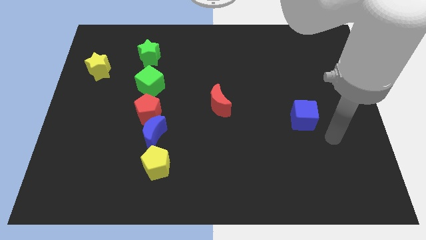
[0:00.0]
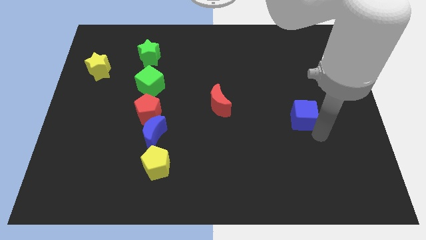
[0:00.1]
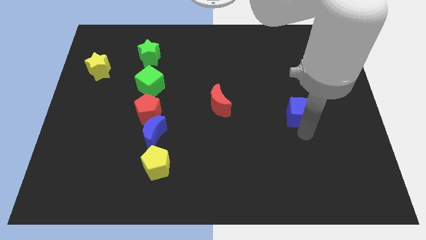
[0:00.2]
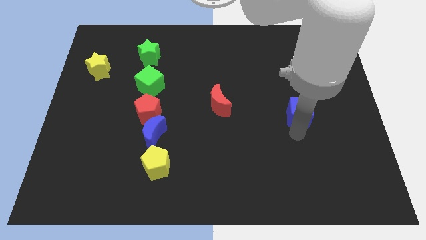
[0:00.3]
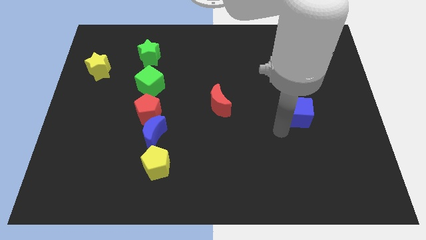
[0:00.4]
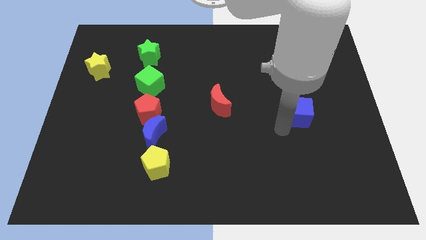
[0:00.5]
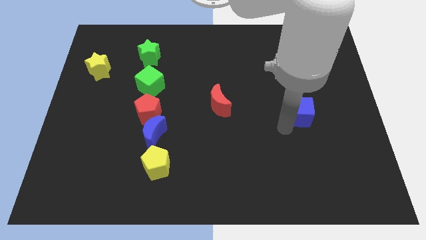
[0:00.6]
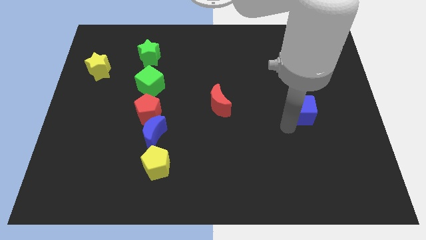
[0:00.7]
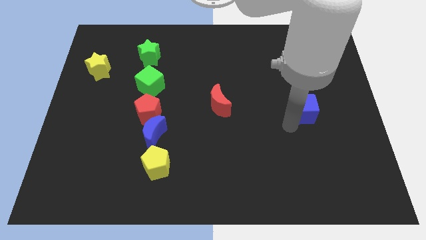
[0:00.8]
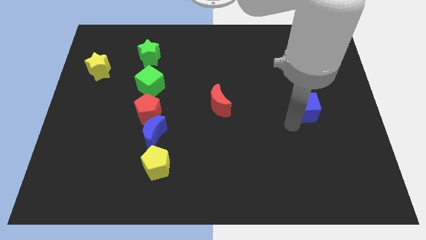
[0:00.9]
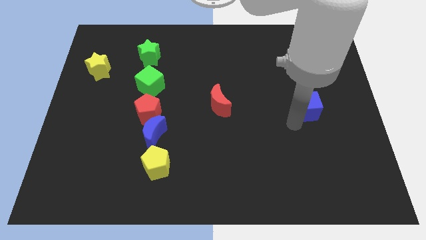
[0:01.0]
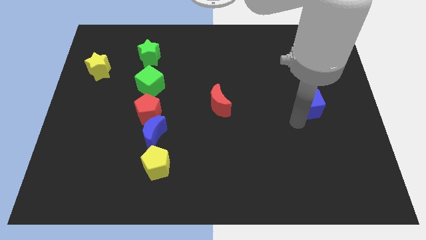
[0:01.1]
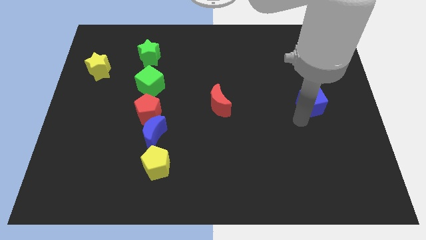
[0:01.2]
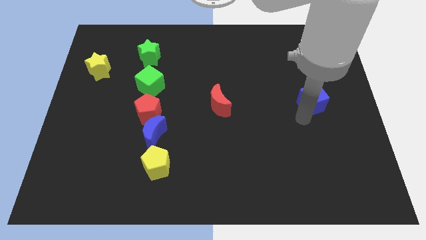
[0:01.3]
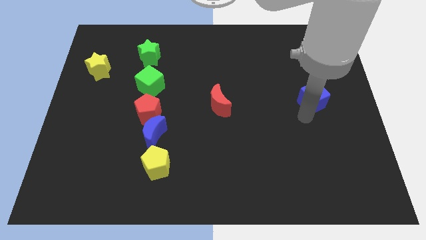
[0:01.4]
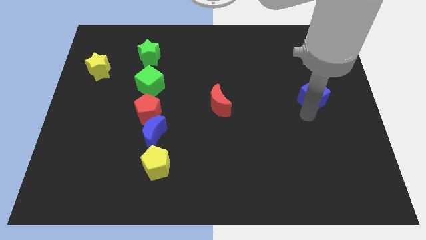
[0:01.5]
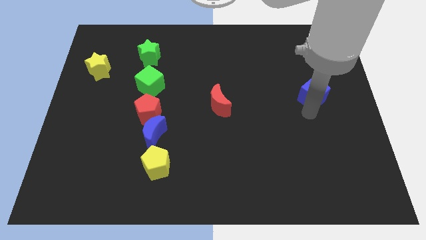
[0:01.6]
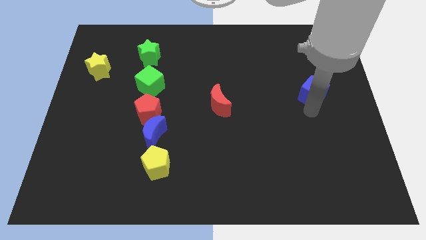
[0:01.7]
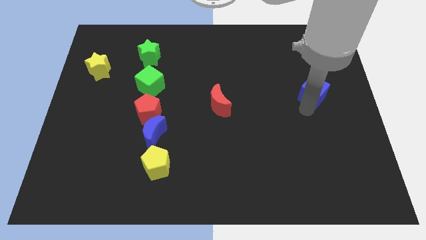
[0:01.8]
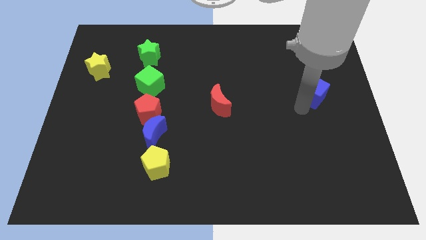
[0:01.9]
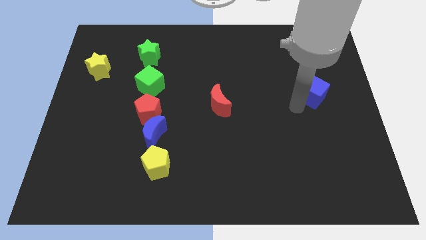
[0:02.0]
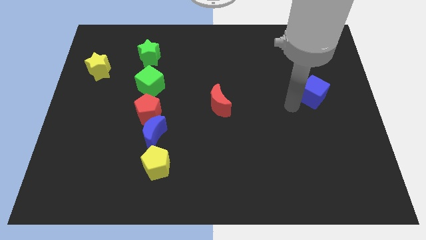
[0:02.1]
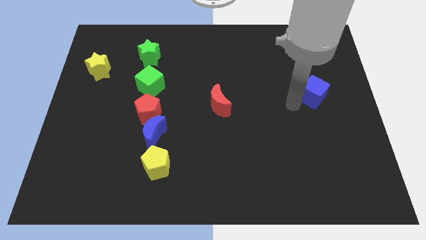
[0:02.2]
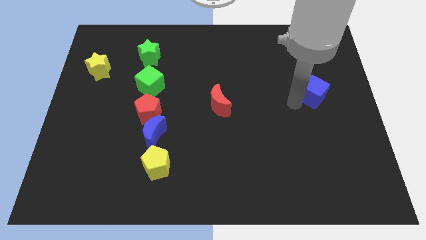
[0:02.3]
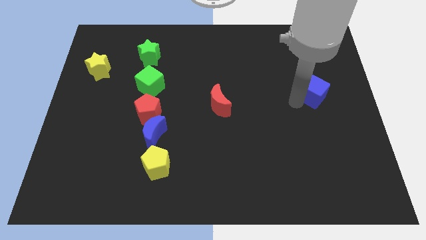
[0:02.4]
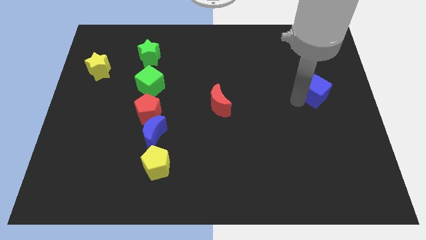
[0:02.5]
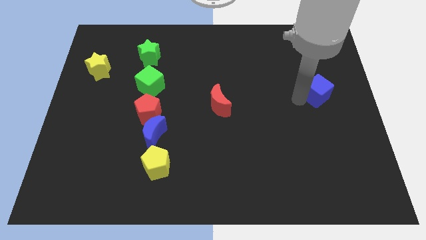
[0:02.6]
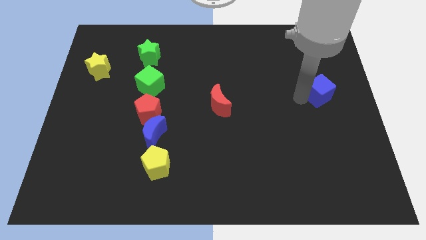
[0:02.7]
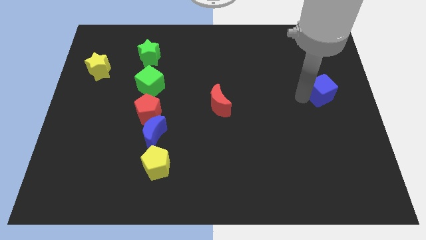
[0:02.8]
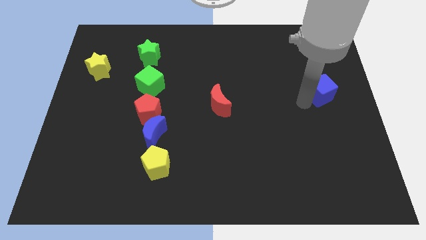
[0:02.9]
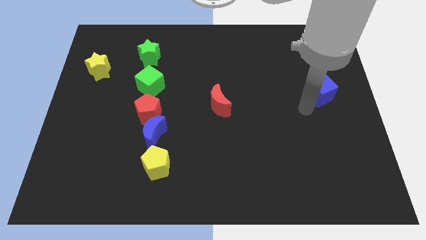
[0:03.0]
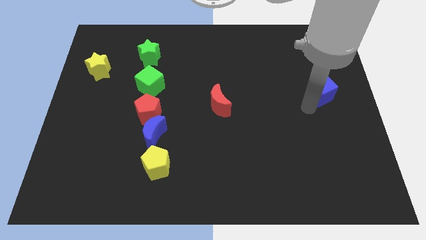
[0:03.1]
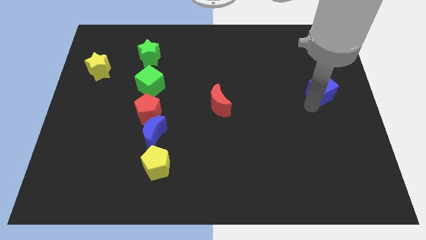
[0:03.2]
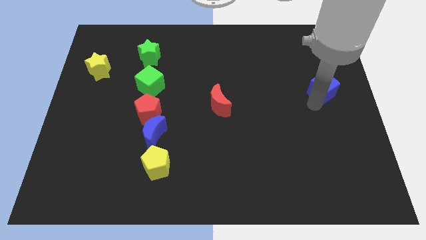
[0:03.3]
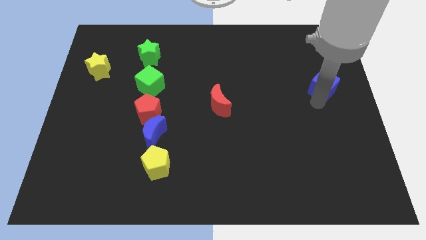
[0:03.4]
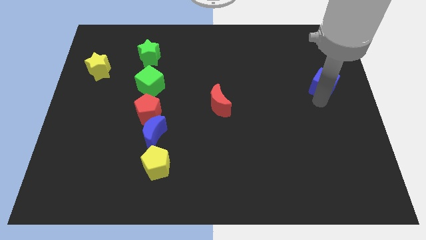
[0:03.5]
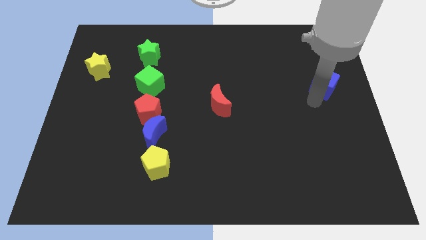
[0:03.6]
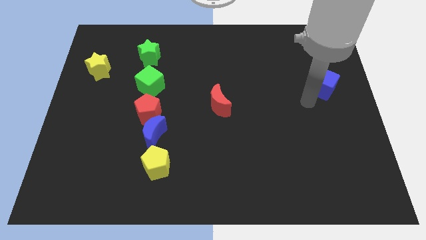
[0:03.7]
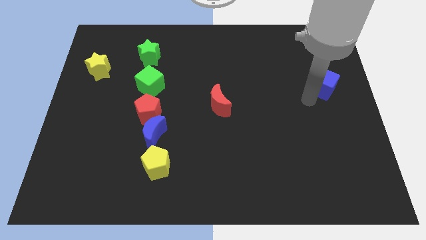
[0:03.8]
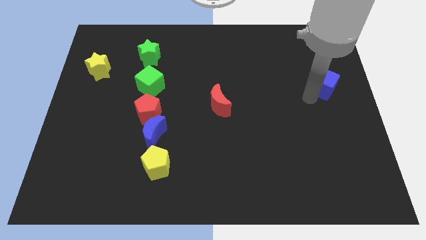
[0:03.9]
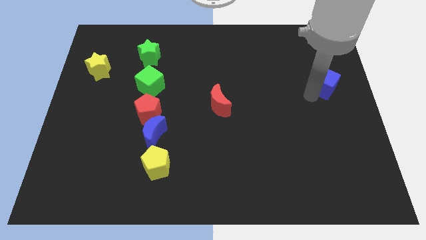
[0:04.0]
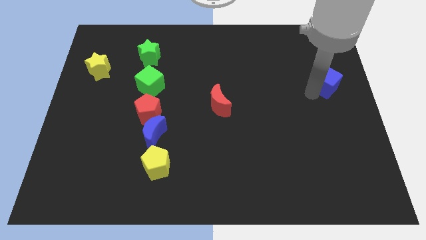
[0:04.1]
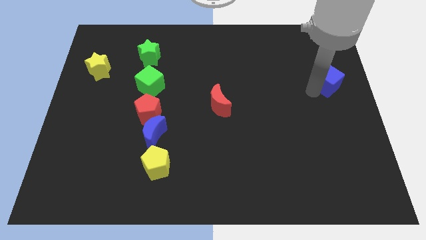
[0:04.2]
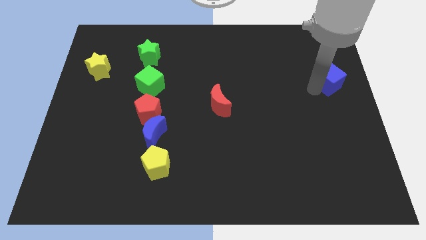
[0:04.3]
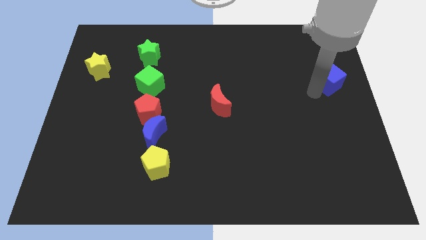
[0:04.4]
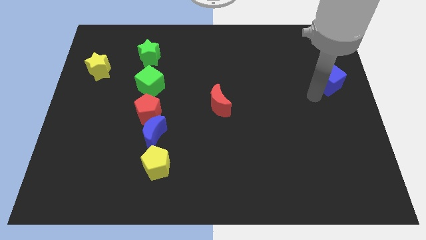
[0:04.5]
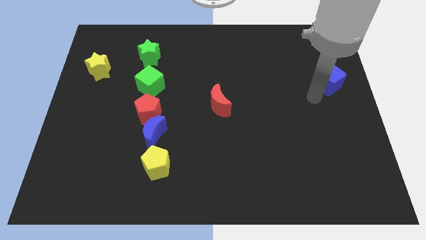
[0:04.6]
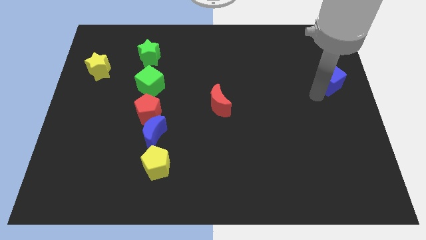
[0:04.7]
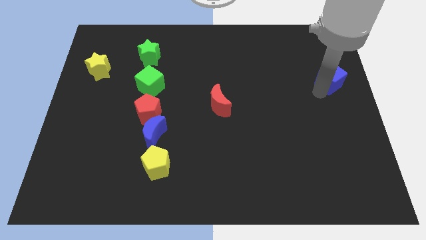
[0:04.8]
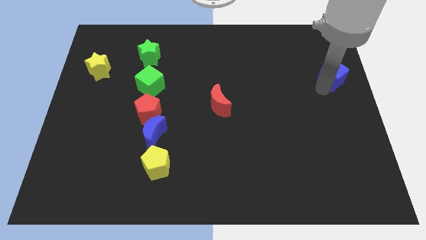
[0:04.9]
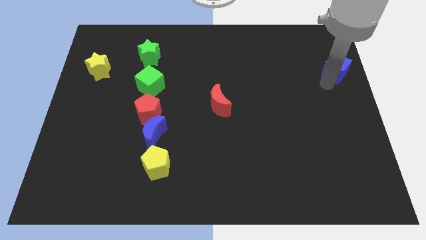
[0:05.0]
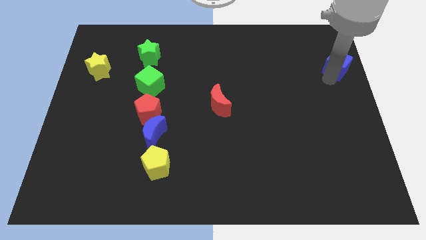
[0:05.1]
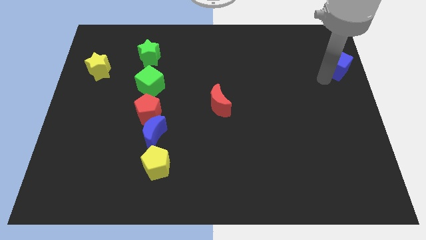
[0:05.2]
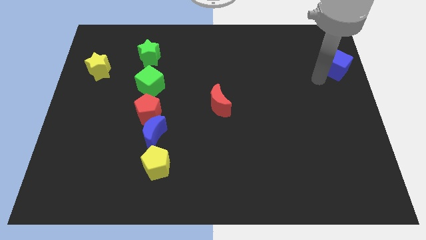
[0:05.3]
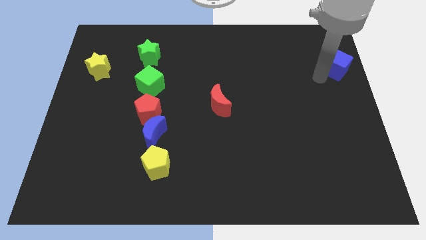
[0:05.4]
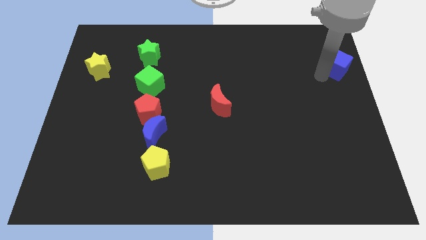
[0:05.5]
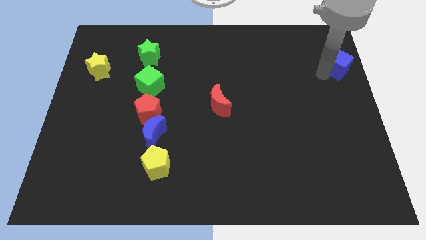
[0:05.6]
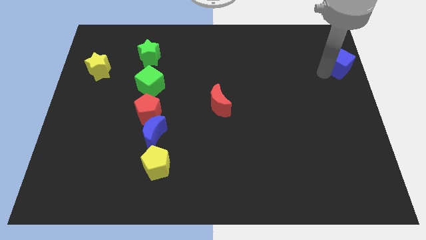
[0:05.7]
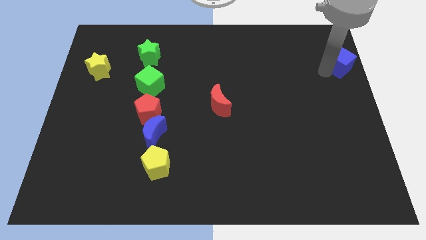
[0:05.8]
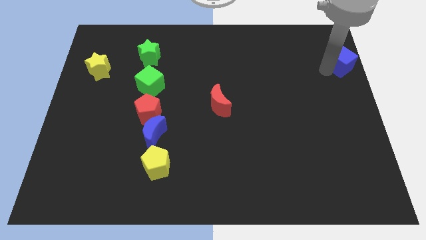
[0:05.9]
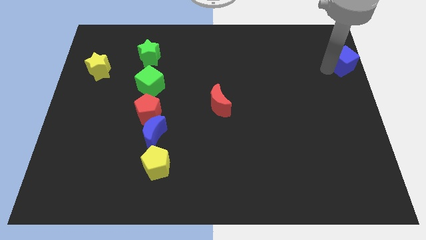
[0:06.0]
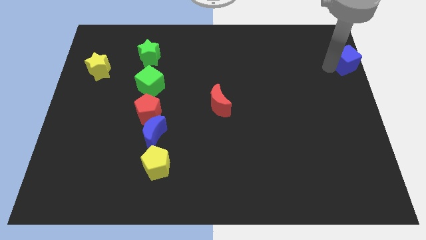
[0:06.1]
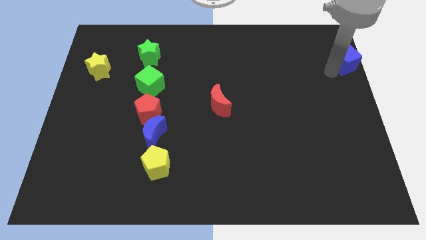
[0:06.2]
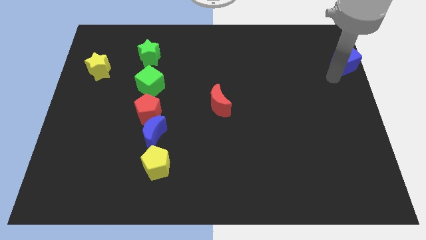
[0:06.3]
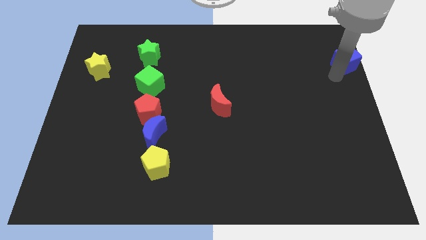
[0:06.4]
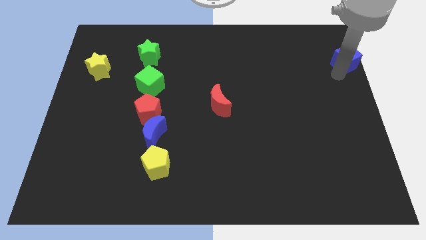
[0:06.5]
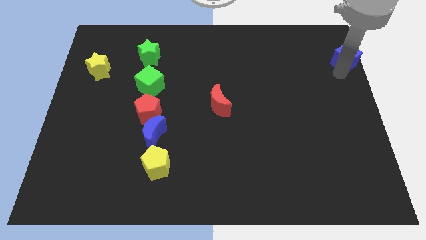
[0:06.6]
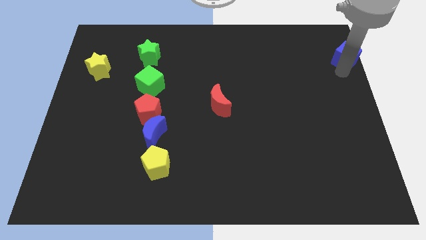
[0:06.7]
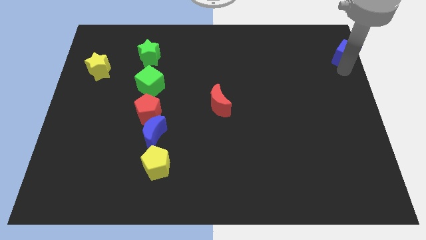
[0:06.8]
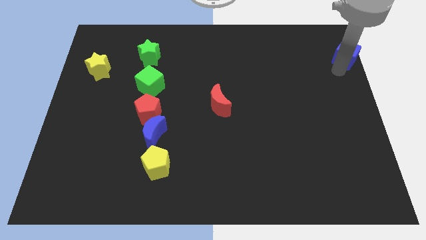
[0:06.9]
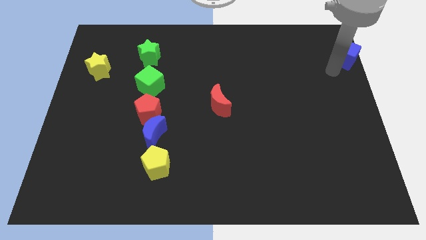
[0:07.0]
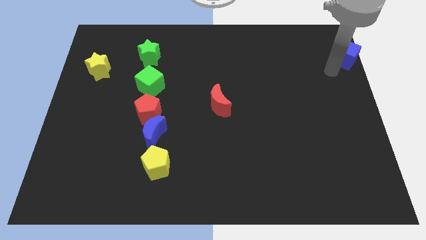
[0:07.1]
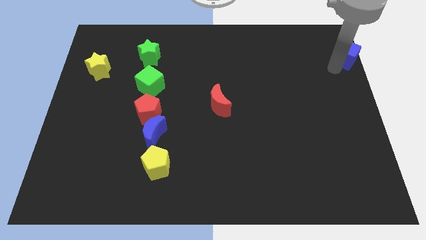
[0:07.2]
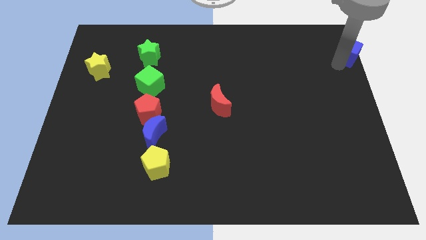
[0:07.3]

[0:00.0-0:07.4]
slide the blue cube to the upper right corner

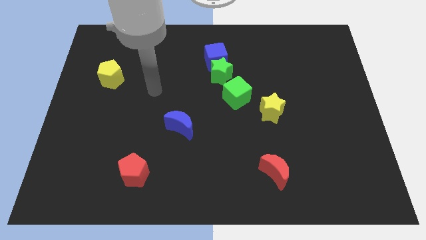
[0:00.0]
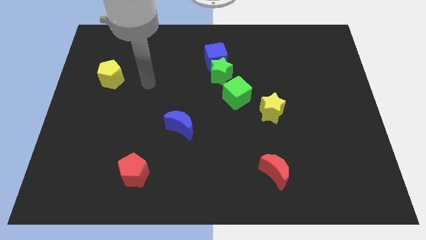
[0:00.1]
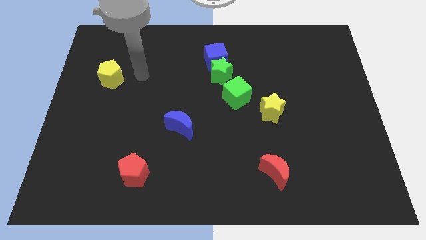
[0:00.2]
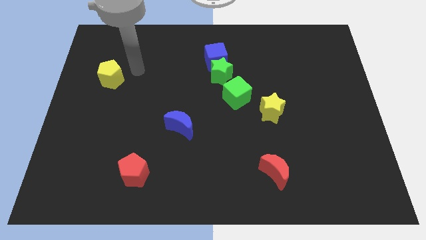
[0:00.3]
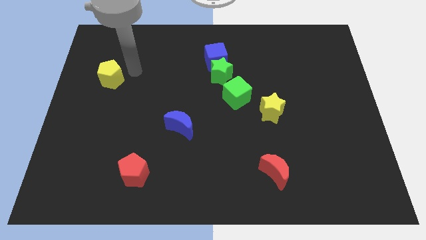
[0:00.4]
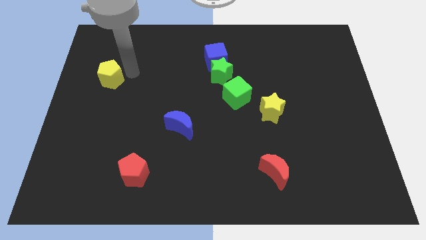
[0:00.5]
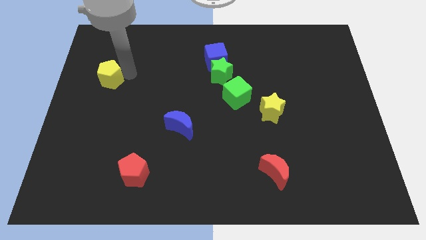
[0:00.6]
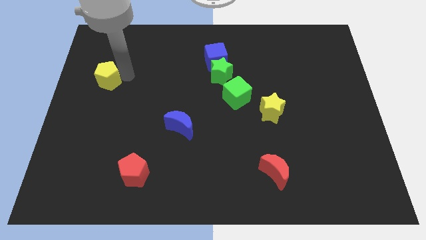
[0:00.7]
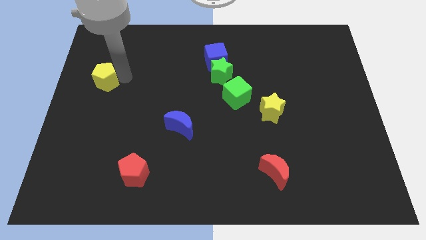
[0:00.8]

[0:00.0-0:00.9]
move the yellow pentagon to the center left
